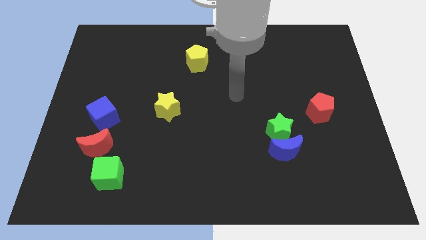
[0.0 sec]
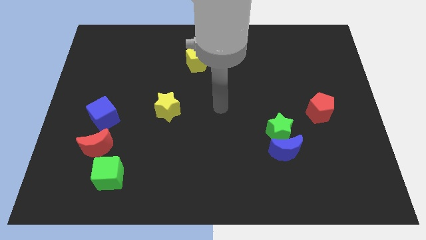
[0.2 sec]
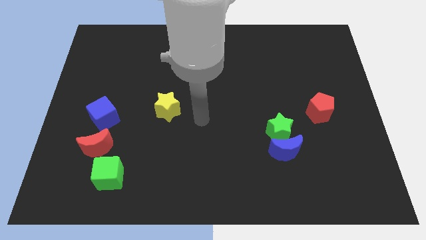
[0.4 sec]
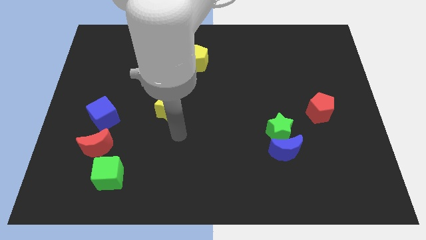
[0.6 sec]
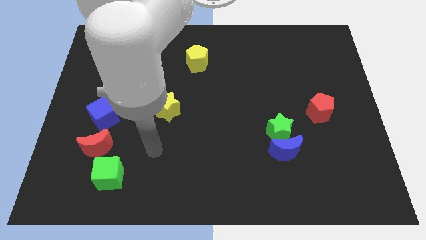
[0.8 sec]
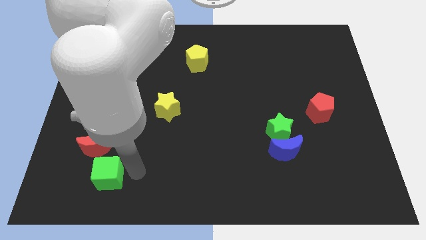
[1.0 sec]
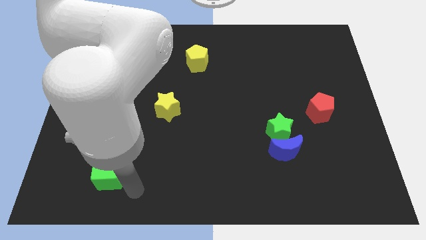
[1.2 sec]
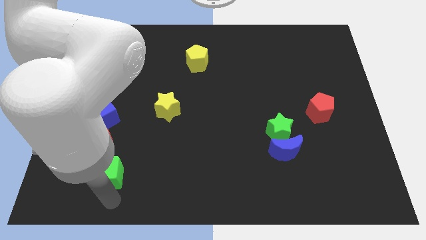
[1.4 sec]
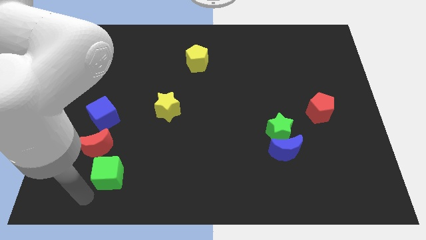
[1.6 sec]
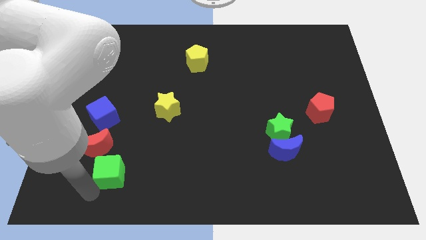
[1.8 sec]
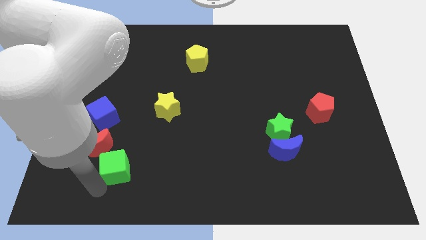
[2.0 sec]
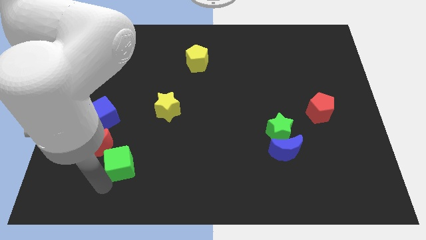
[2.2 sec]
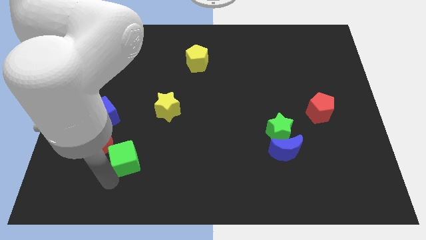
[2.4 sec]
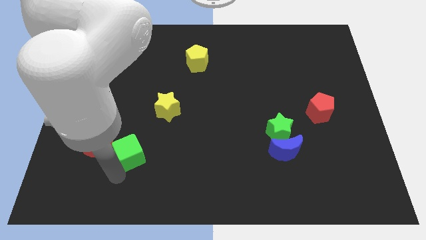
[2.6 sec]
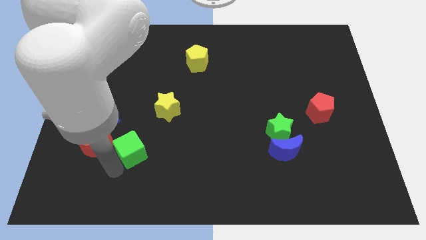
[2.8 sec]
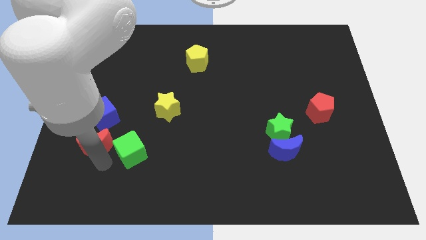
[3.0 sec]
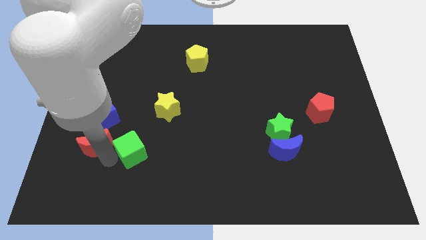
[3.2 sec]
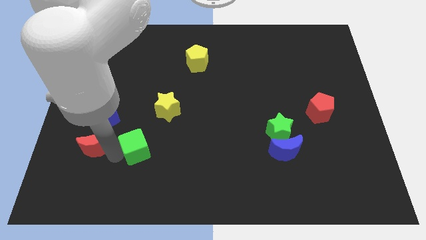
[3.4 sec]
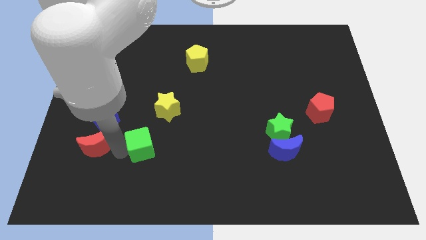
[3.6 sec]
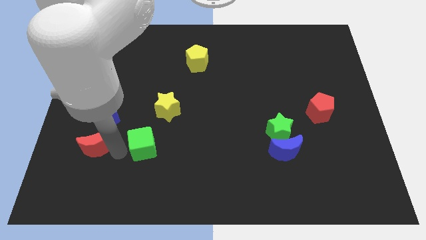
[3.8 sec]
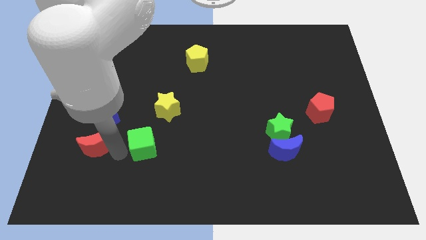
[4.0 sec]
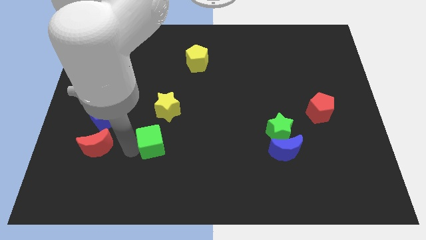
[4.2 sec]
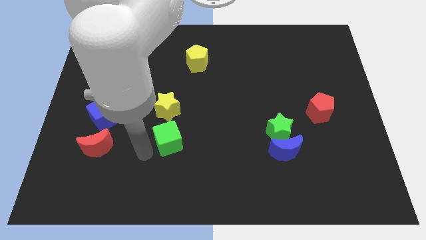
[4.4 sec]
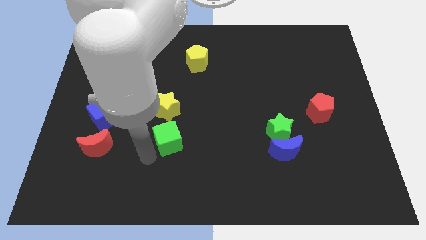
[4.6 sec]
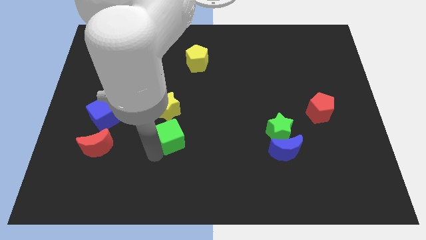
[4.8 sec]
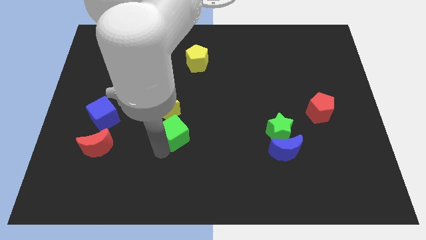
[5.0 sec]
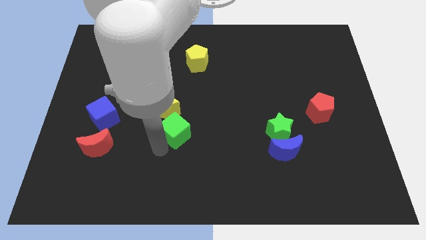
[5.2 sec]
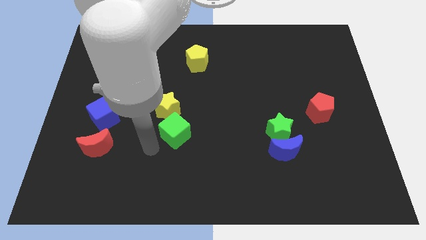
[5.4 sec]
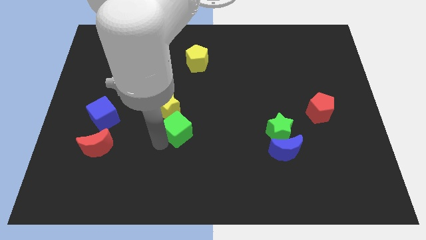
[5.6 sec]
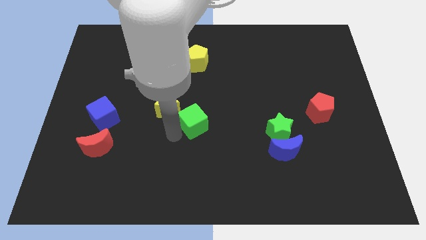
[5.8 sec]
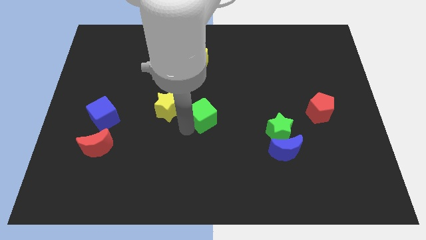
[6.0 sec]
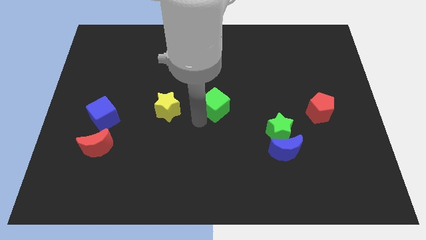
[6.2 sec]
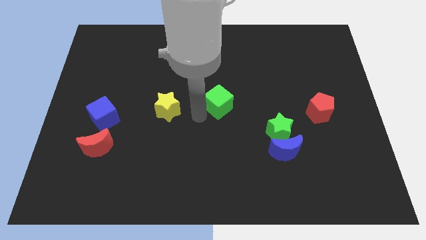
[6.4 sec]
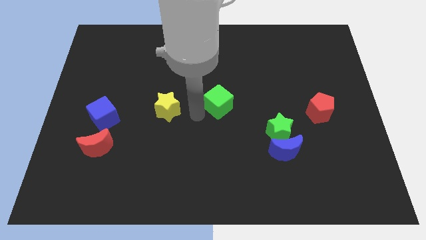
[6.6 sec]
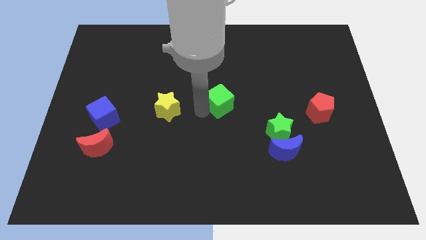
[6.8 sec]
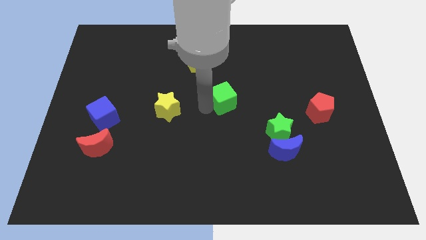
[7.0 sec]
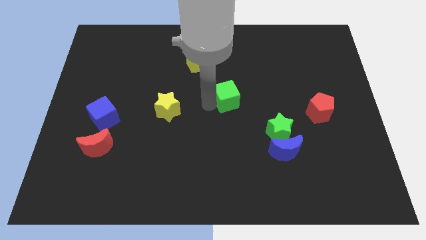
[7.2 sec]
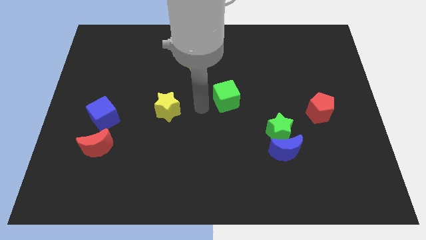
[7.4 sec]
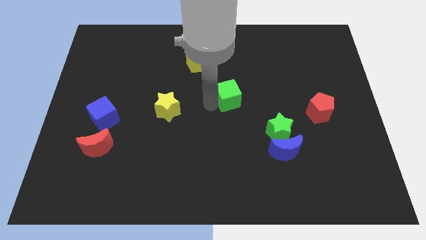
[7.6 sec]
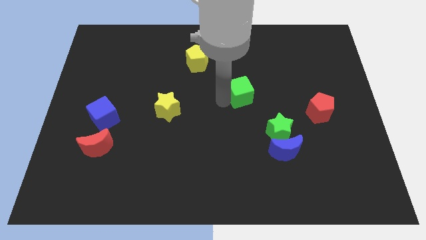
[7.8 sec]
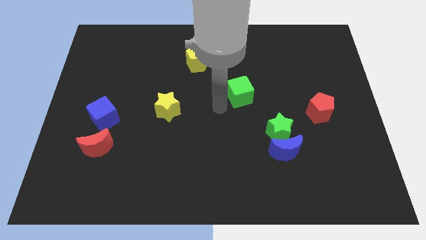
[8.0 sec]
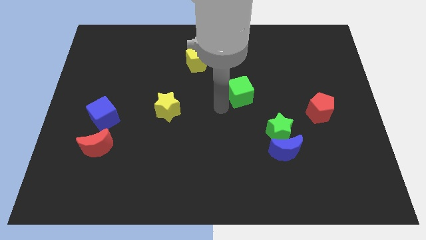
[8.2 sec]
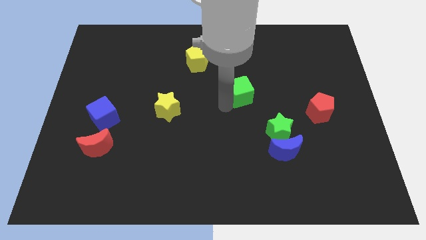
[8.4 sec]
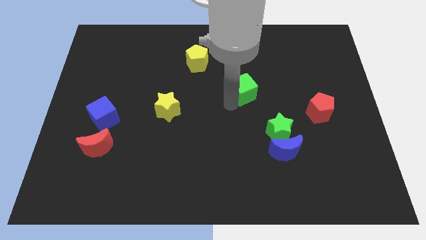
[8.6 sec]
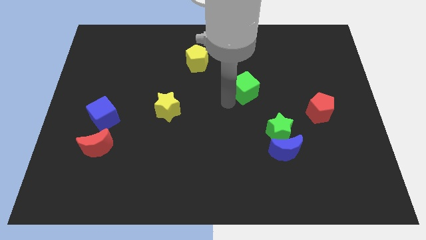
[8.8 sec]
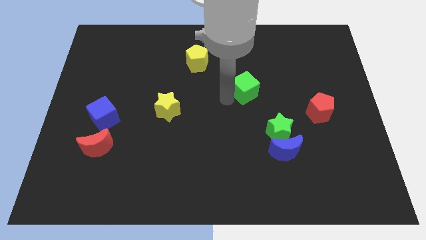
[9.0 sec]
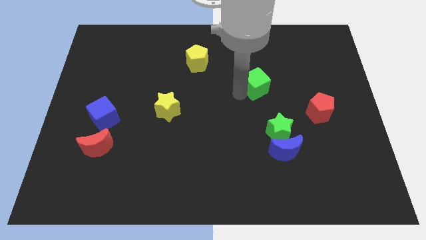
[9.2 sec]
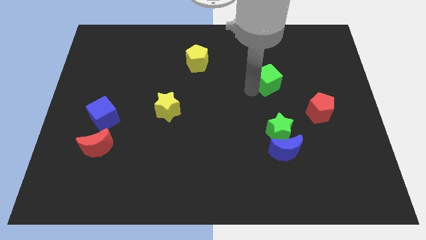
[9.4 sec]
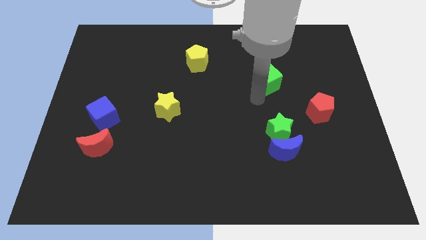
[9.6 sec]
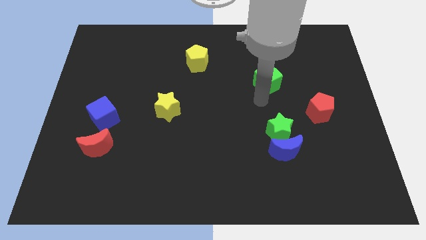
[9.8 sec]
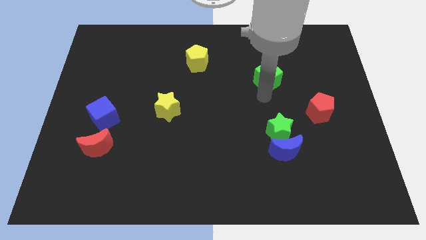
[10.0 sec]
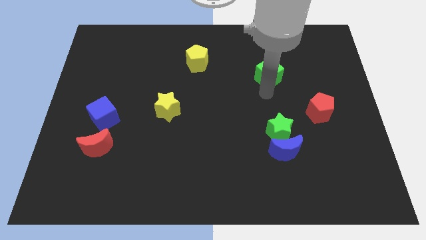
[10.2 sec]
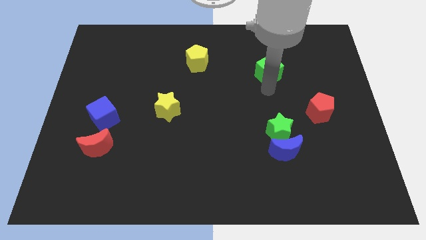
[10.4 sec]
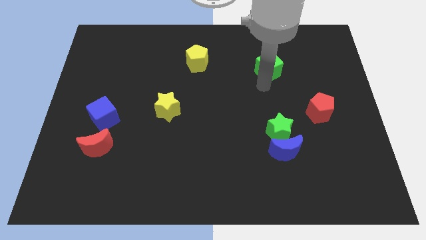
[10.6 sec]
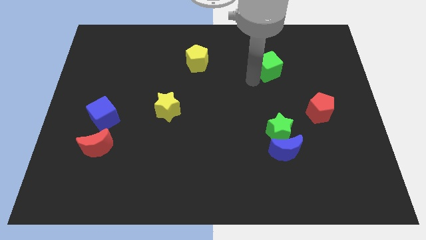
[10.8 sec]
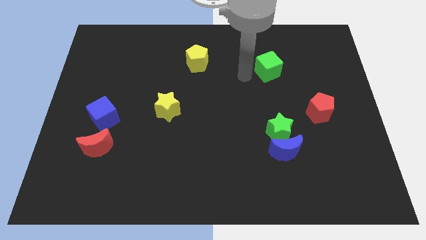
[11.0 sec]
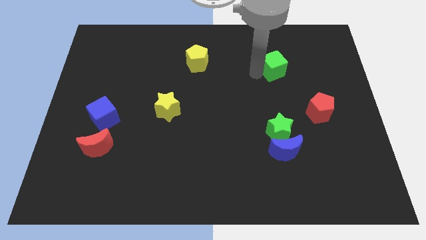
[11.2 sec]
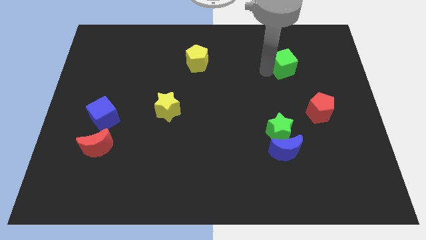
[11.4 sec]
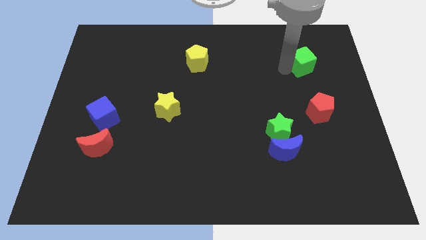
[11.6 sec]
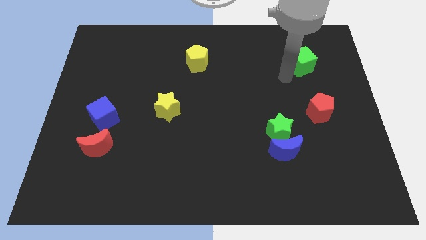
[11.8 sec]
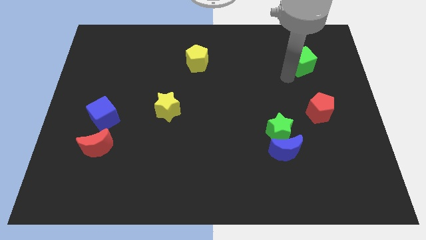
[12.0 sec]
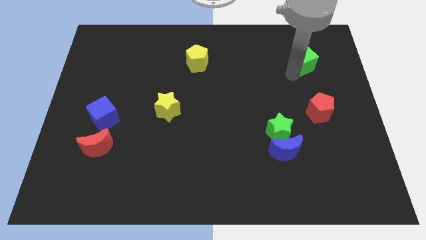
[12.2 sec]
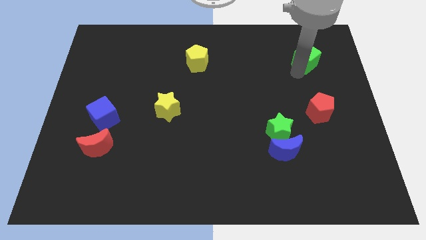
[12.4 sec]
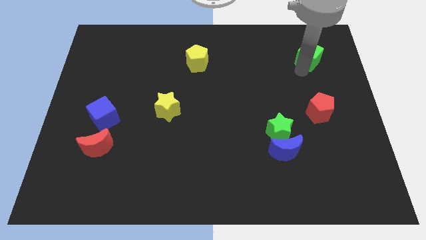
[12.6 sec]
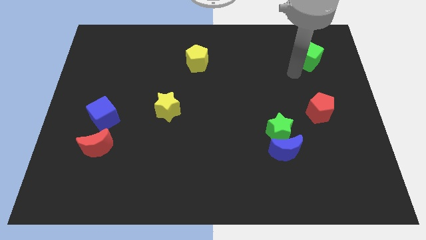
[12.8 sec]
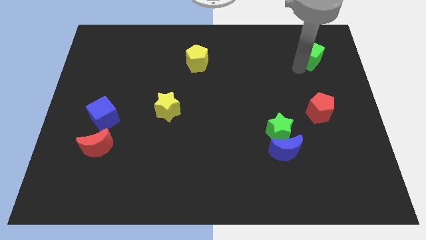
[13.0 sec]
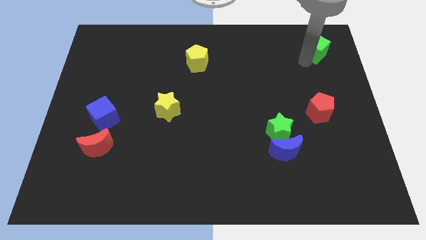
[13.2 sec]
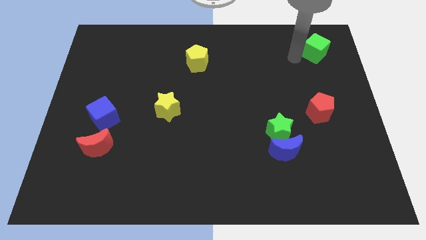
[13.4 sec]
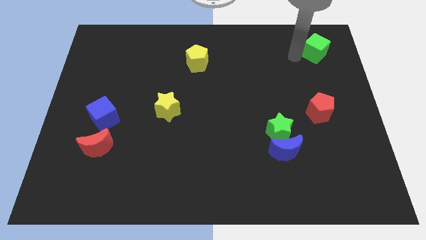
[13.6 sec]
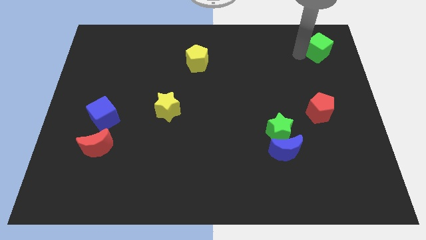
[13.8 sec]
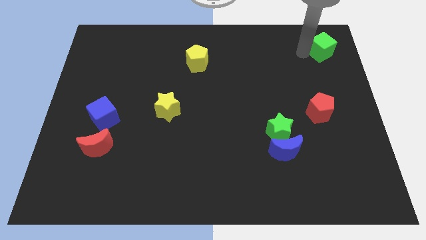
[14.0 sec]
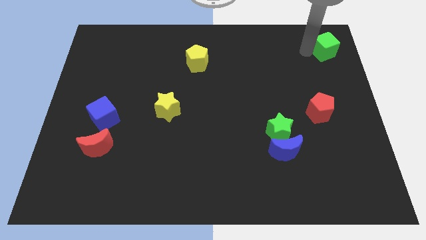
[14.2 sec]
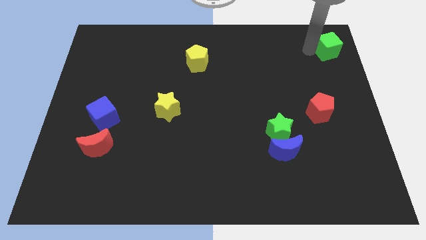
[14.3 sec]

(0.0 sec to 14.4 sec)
put the green cube to the upper right corner
